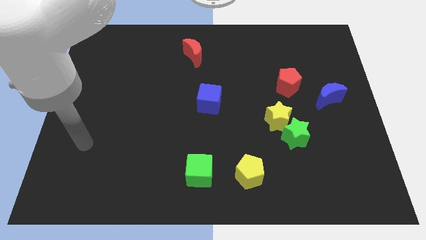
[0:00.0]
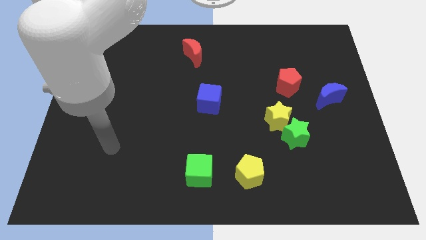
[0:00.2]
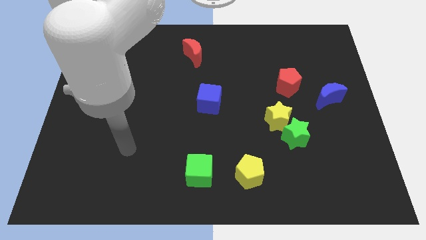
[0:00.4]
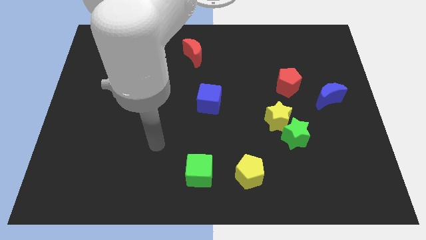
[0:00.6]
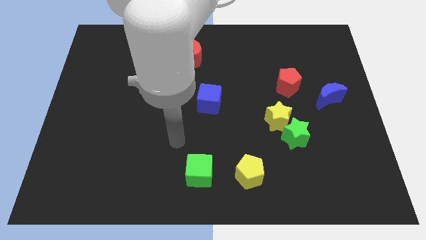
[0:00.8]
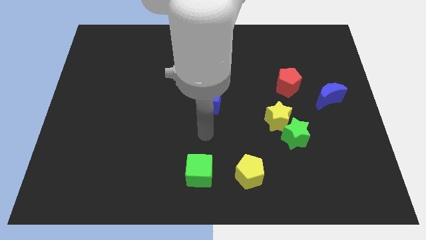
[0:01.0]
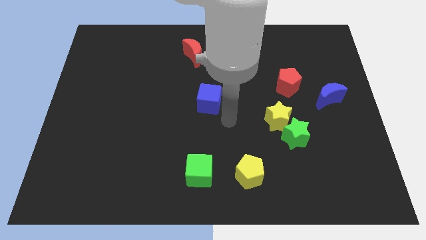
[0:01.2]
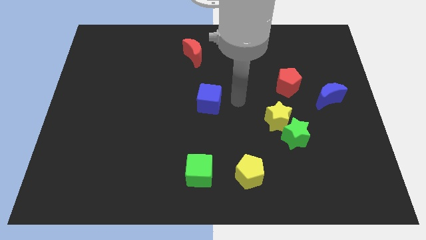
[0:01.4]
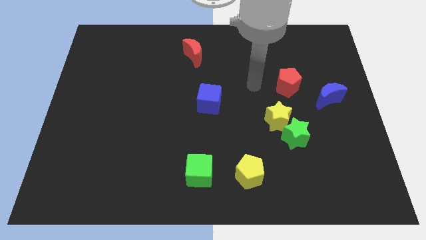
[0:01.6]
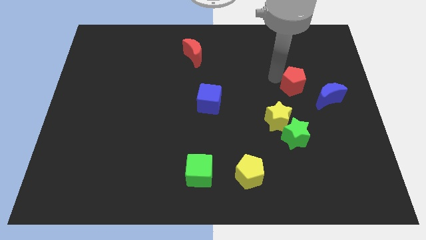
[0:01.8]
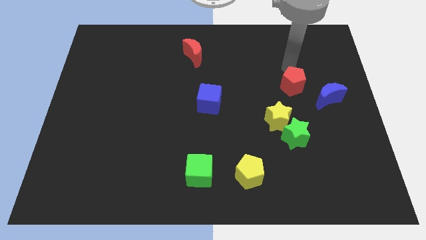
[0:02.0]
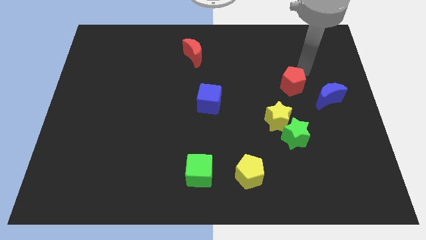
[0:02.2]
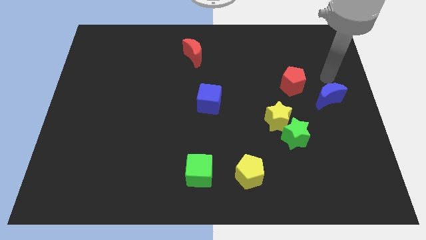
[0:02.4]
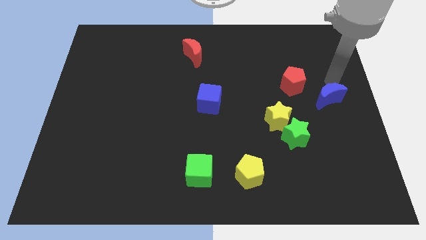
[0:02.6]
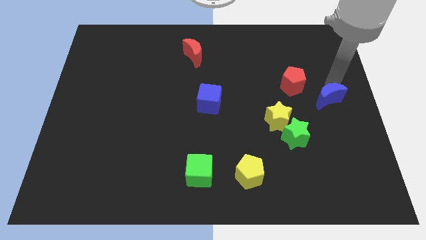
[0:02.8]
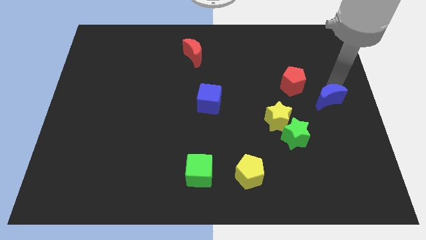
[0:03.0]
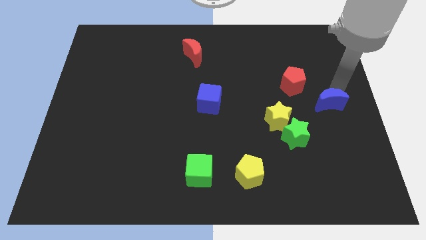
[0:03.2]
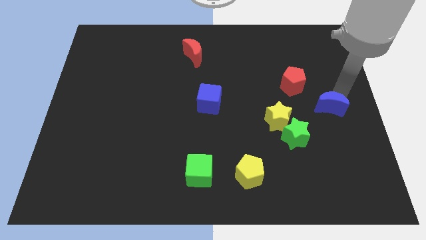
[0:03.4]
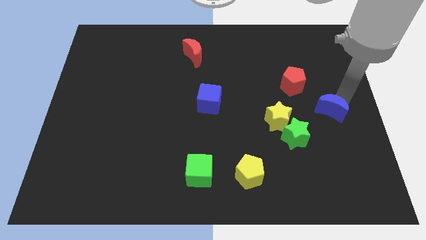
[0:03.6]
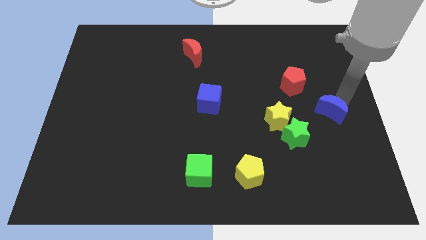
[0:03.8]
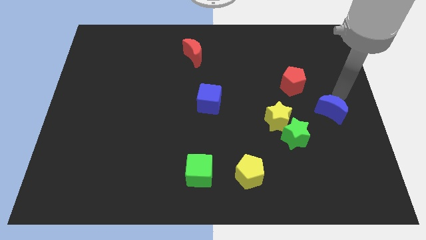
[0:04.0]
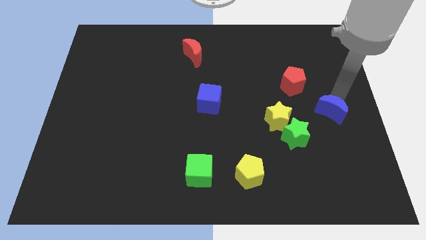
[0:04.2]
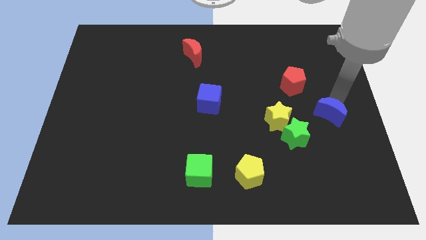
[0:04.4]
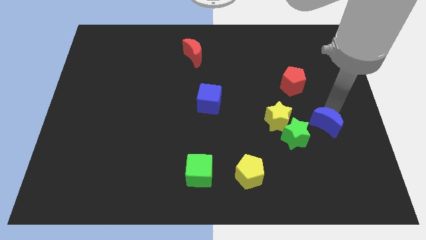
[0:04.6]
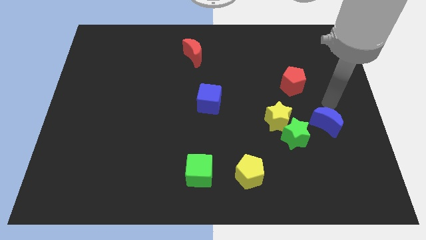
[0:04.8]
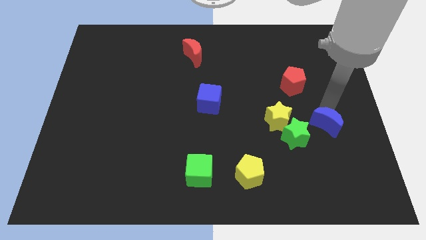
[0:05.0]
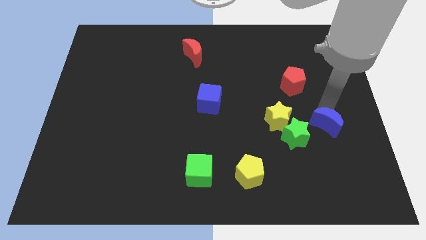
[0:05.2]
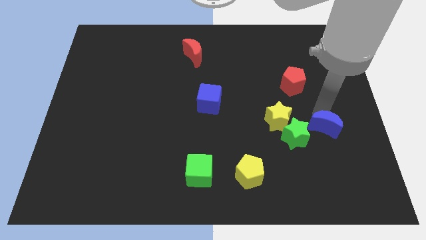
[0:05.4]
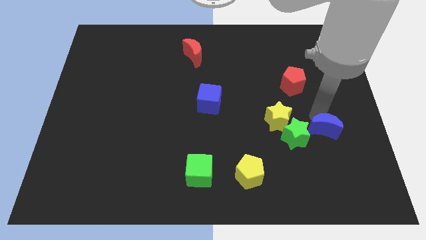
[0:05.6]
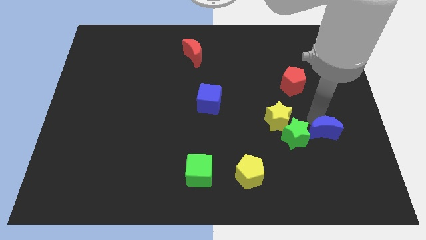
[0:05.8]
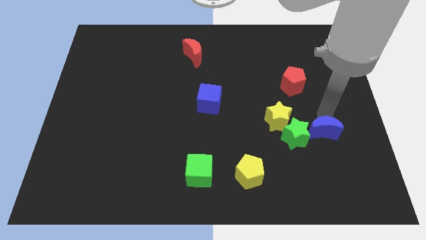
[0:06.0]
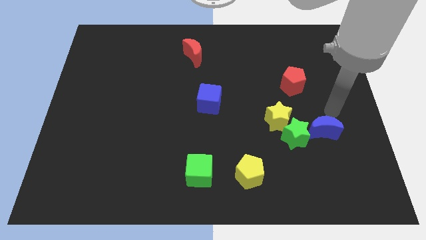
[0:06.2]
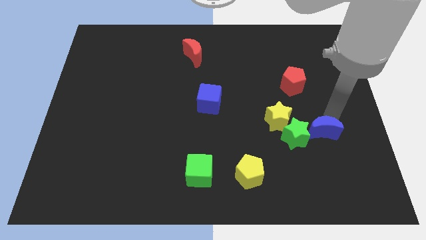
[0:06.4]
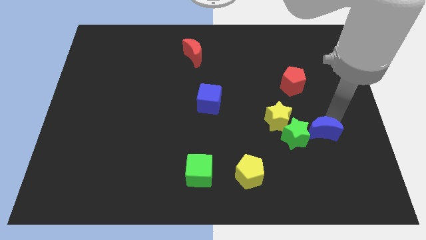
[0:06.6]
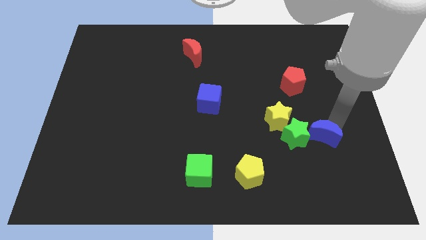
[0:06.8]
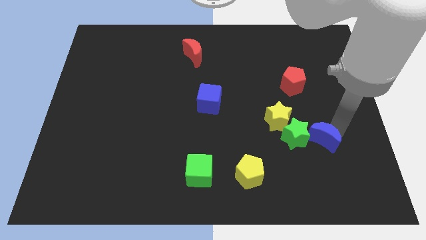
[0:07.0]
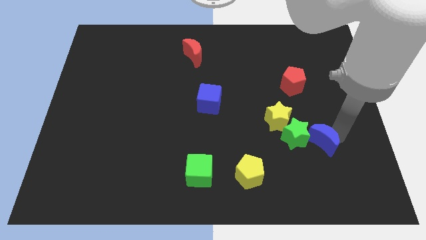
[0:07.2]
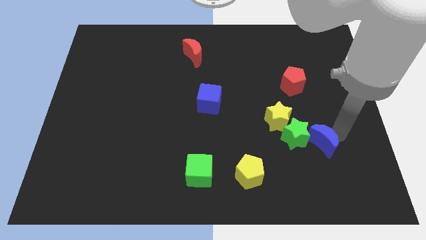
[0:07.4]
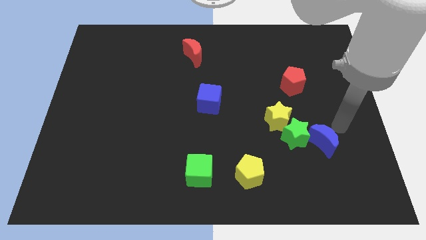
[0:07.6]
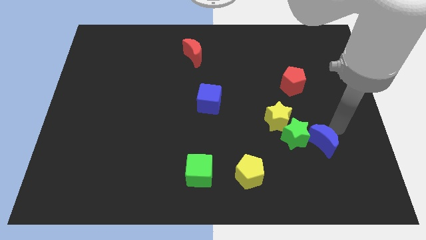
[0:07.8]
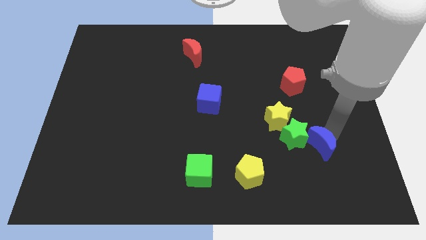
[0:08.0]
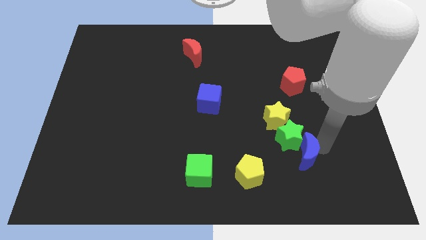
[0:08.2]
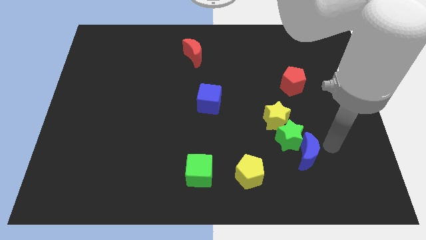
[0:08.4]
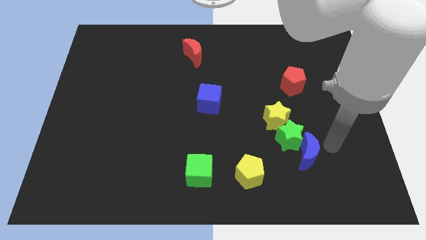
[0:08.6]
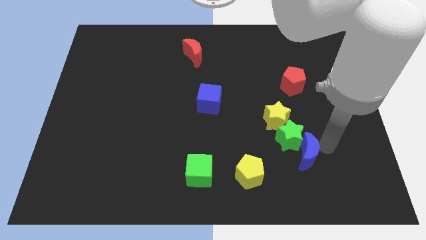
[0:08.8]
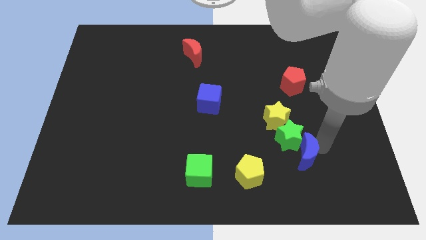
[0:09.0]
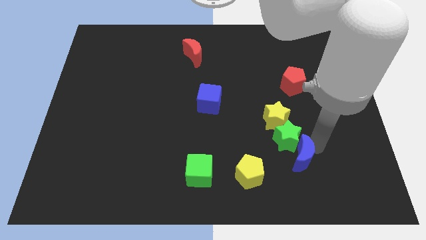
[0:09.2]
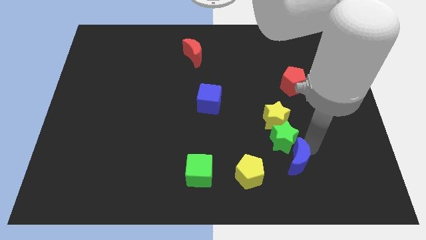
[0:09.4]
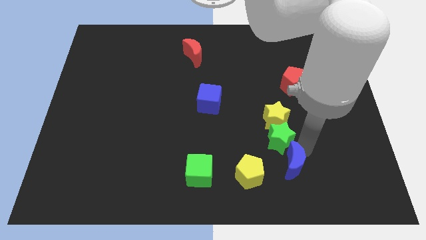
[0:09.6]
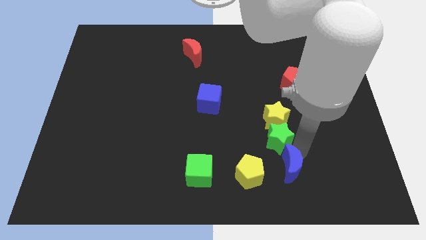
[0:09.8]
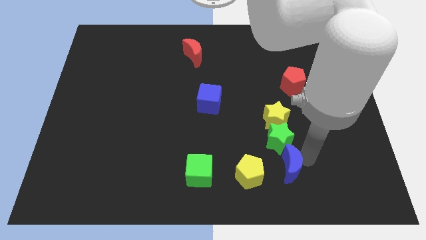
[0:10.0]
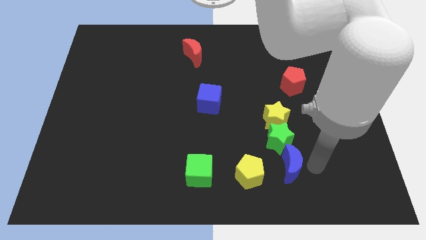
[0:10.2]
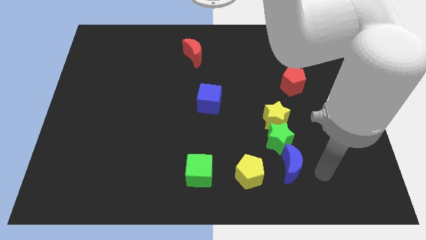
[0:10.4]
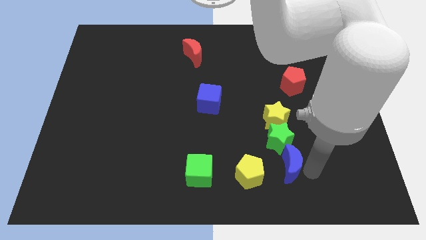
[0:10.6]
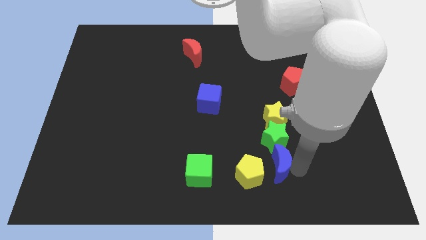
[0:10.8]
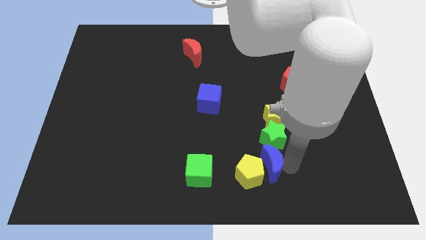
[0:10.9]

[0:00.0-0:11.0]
put the blue moon next to the yellow pentagon

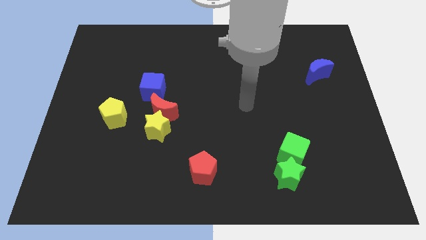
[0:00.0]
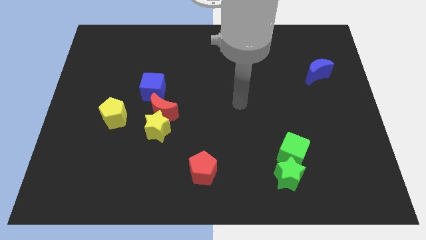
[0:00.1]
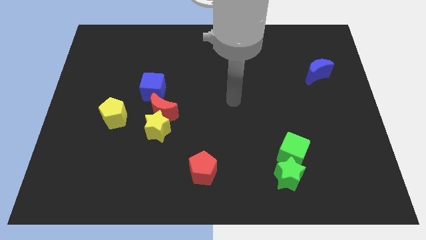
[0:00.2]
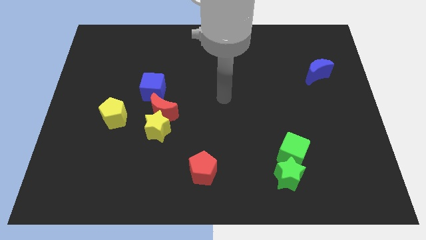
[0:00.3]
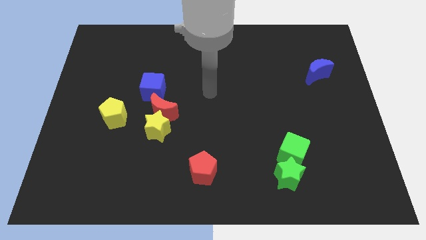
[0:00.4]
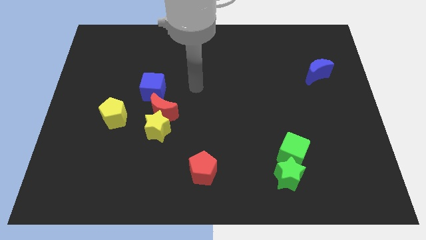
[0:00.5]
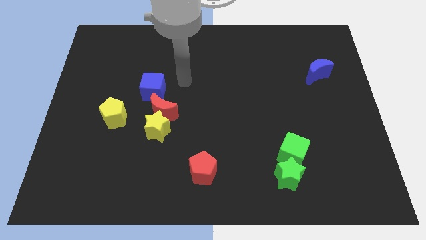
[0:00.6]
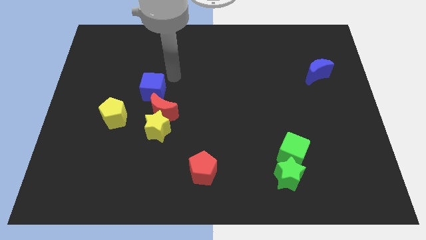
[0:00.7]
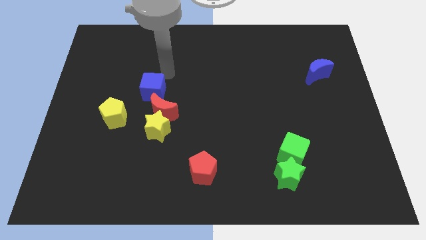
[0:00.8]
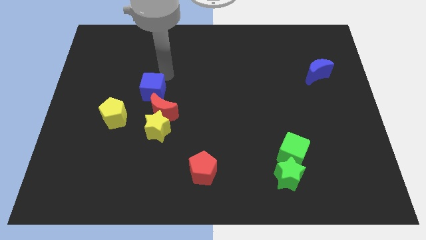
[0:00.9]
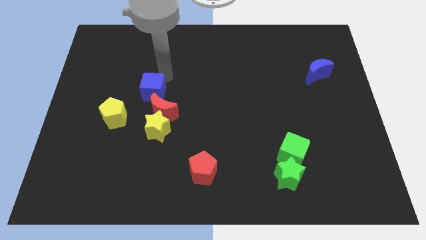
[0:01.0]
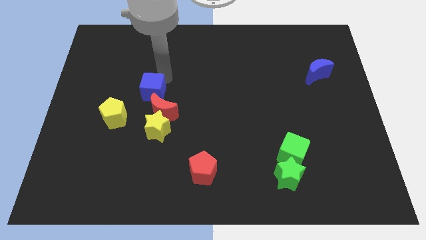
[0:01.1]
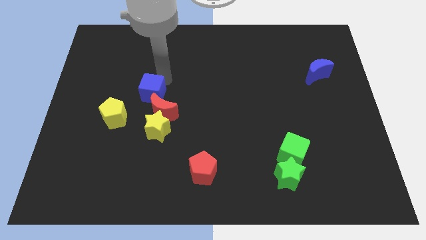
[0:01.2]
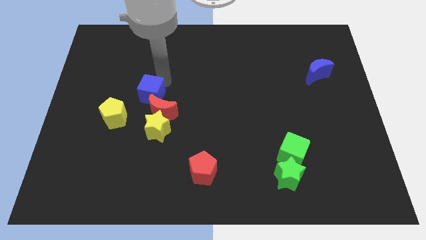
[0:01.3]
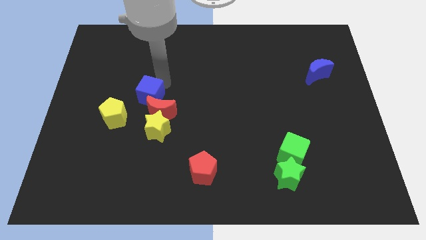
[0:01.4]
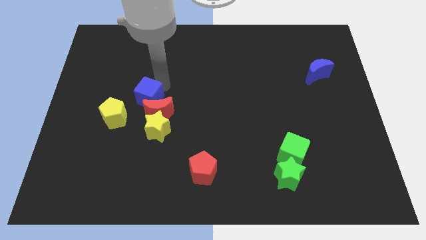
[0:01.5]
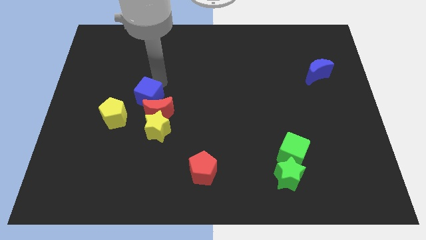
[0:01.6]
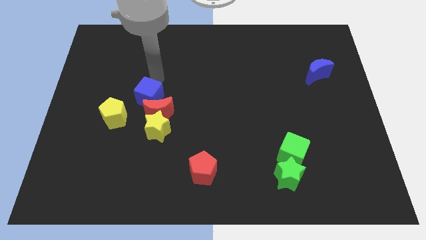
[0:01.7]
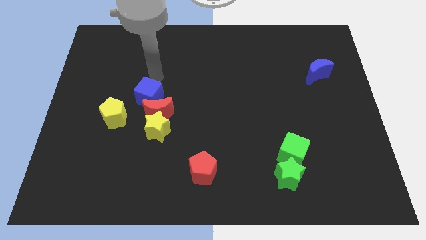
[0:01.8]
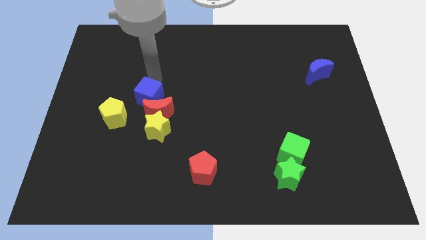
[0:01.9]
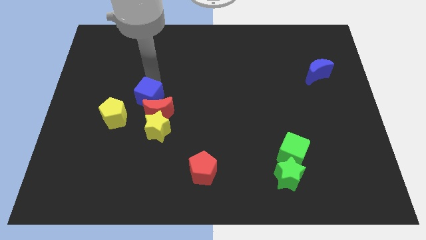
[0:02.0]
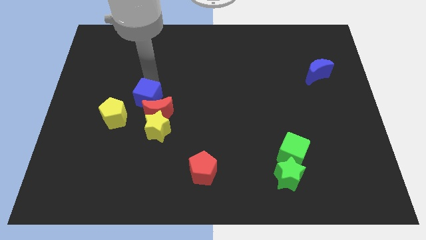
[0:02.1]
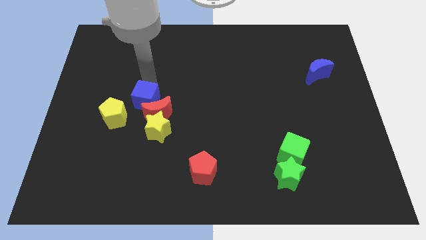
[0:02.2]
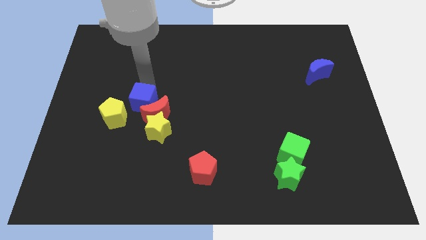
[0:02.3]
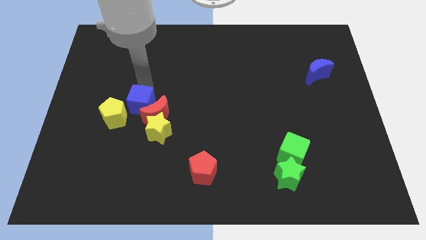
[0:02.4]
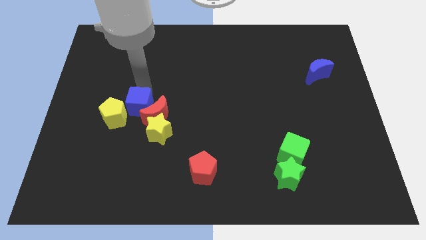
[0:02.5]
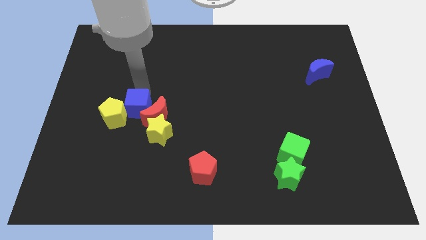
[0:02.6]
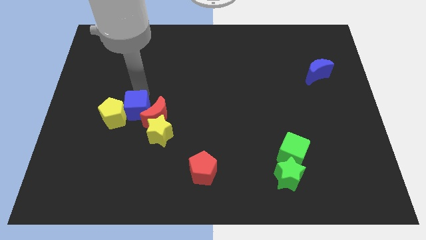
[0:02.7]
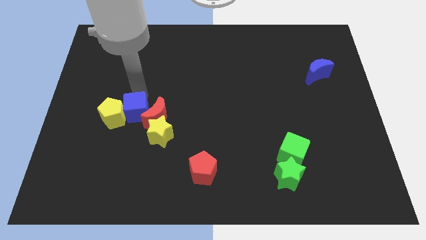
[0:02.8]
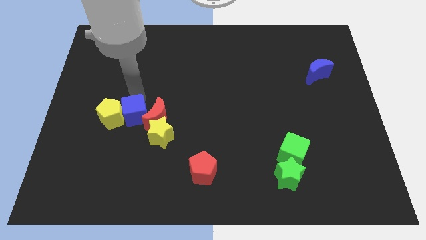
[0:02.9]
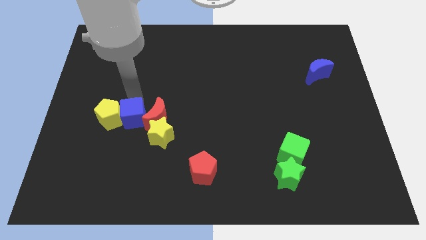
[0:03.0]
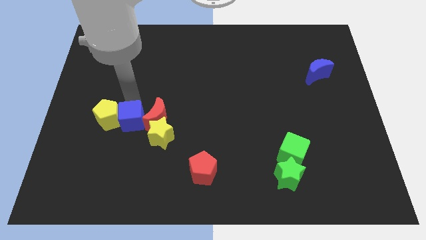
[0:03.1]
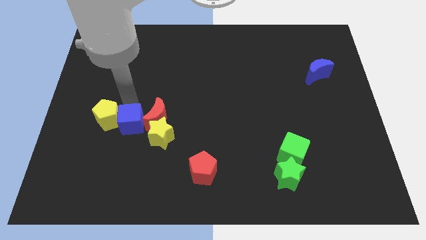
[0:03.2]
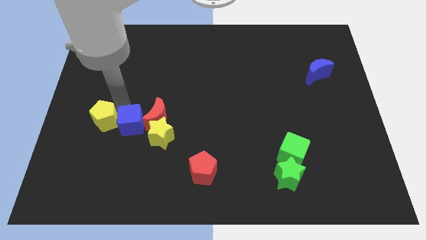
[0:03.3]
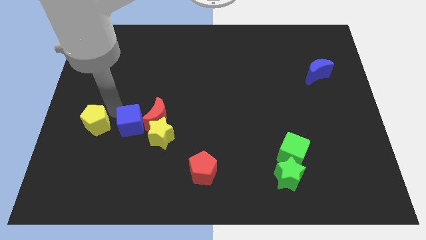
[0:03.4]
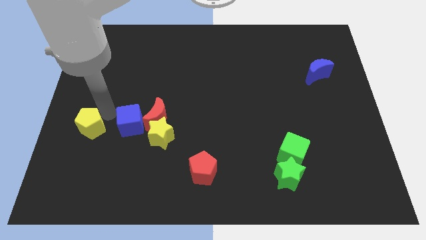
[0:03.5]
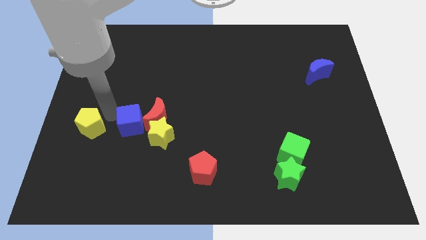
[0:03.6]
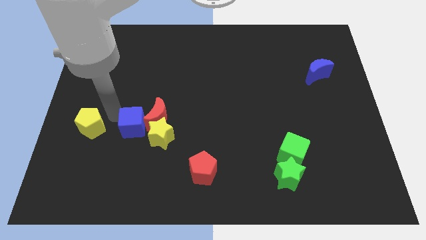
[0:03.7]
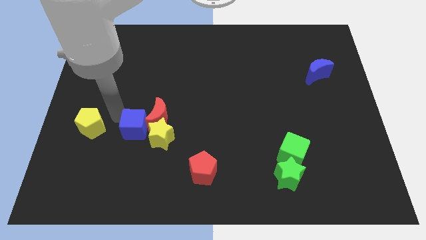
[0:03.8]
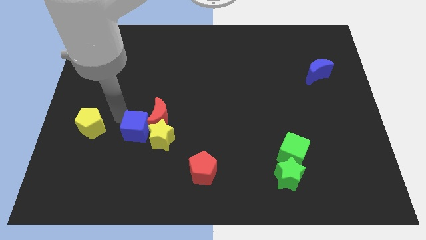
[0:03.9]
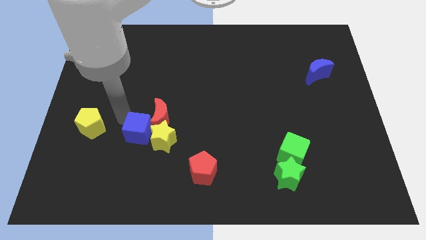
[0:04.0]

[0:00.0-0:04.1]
slide the blue cube to the yellow star
